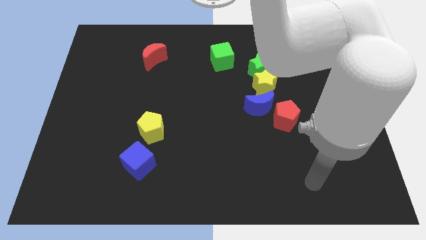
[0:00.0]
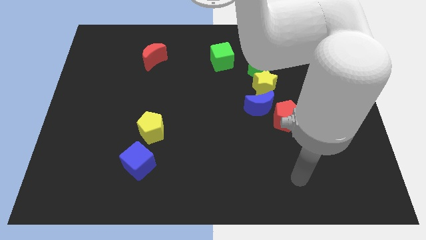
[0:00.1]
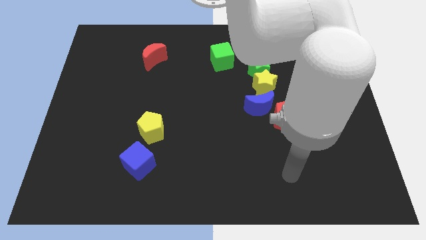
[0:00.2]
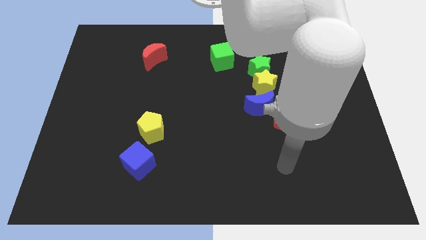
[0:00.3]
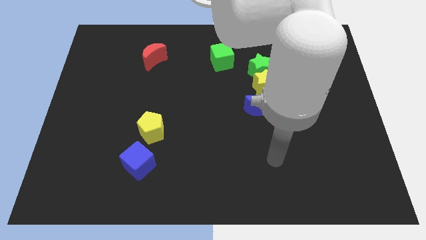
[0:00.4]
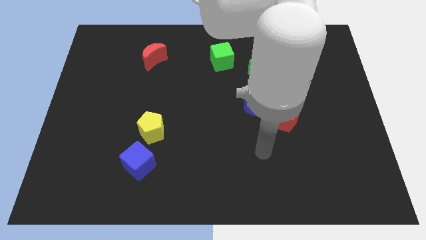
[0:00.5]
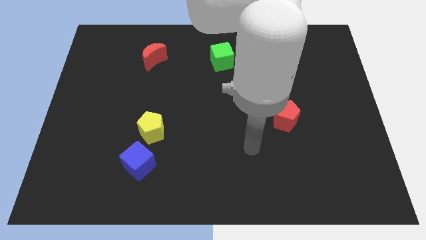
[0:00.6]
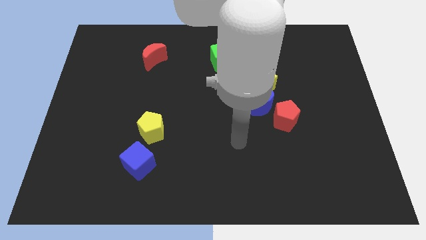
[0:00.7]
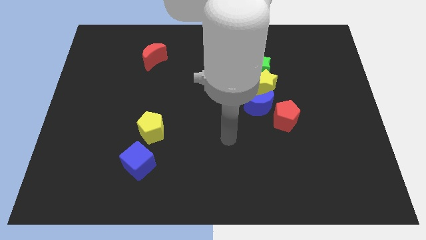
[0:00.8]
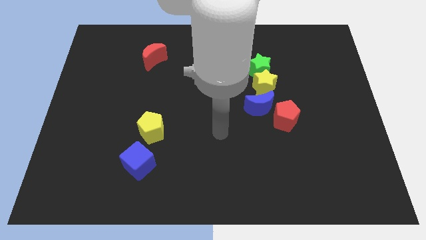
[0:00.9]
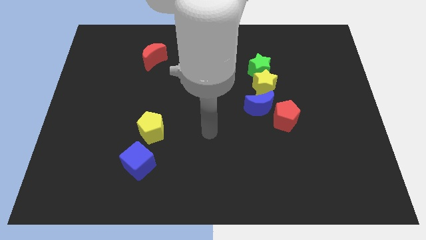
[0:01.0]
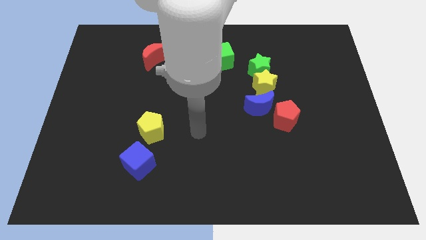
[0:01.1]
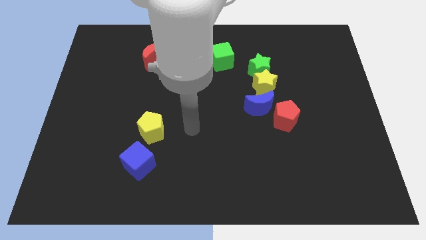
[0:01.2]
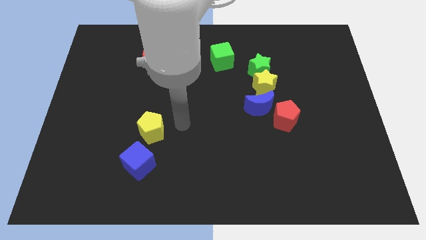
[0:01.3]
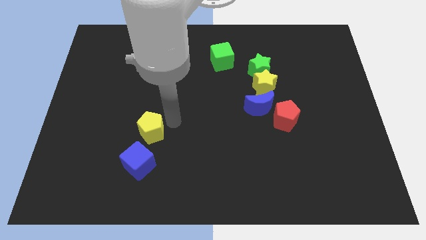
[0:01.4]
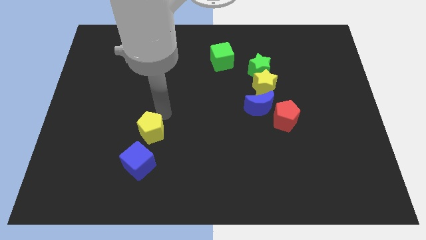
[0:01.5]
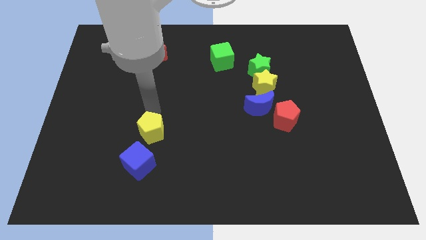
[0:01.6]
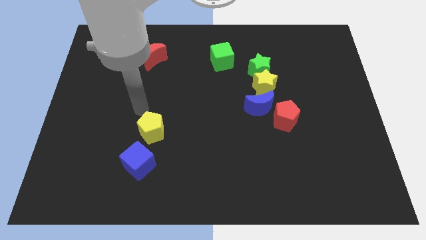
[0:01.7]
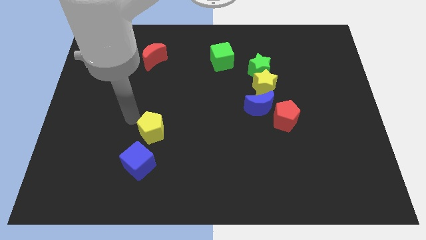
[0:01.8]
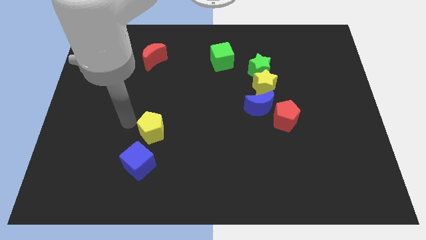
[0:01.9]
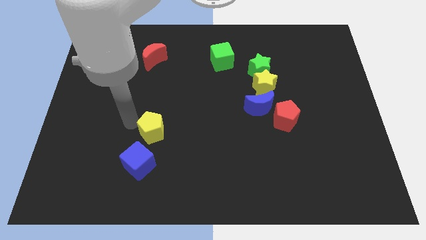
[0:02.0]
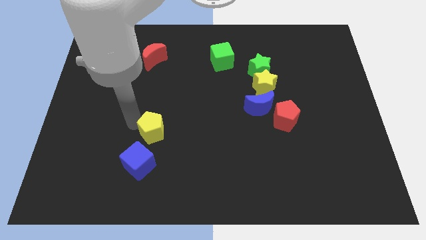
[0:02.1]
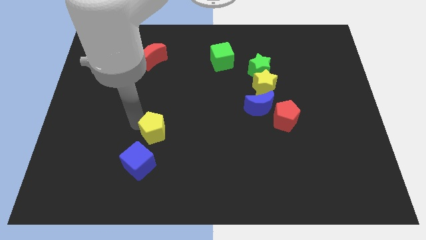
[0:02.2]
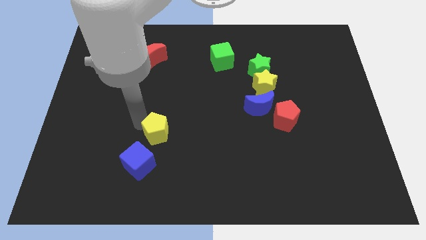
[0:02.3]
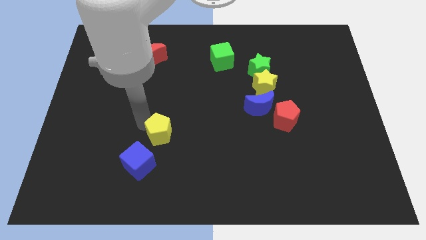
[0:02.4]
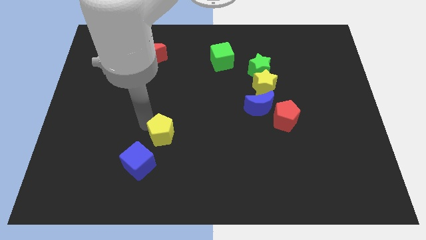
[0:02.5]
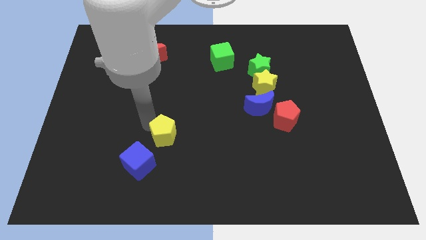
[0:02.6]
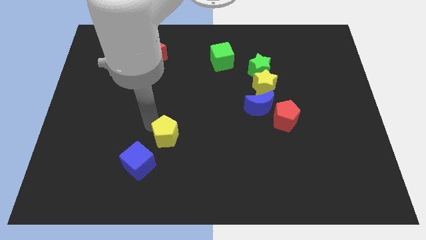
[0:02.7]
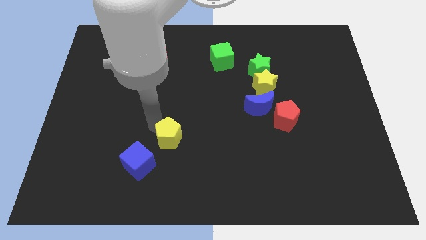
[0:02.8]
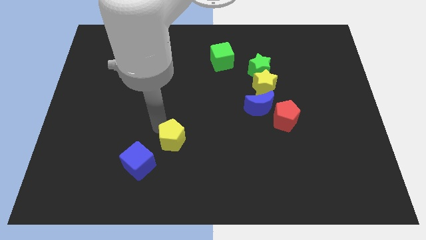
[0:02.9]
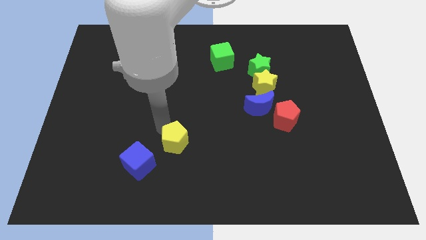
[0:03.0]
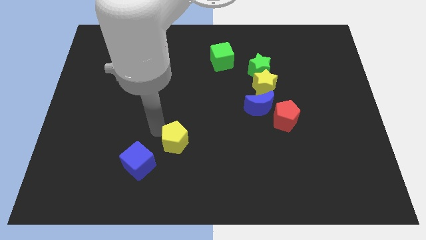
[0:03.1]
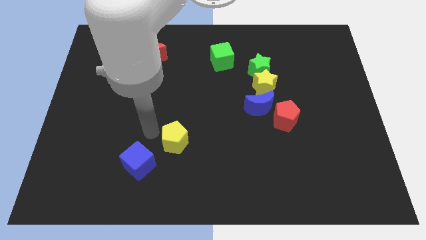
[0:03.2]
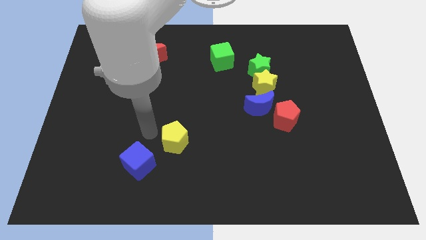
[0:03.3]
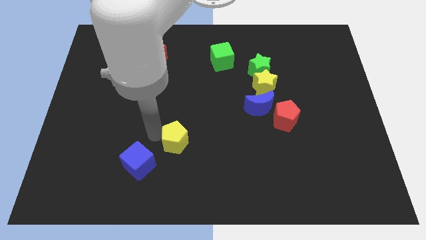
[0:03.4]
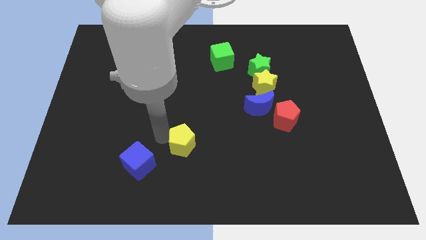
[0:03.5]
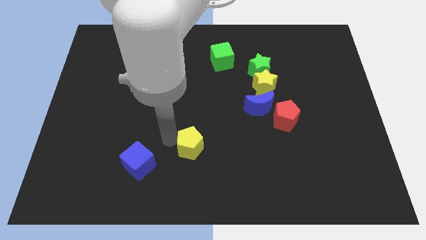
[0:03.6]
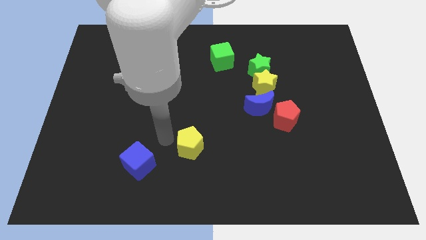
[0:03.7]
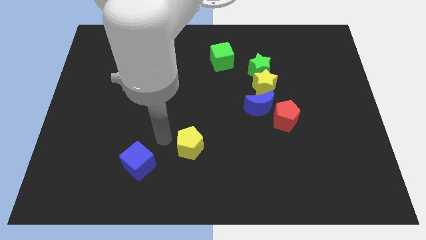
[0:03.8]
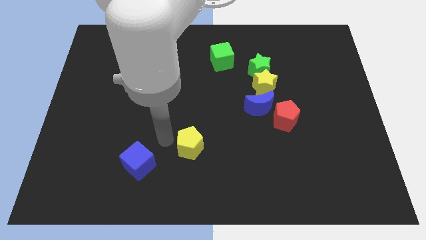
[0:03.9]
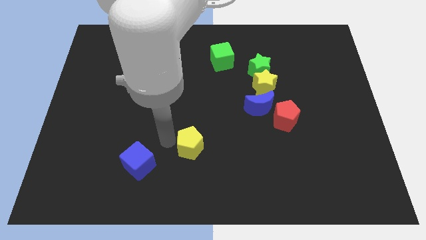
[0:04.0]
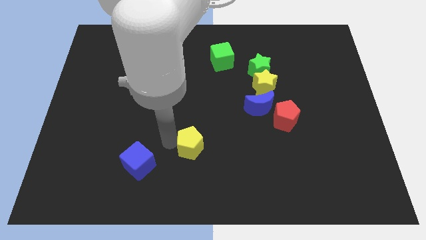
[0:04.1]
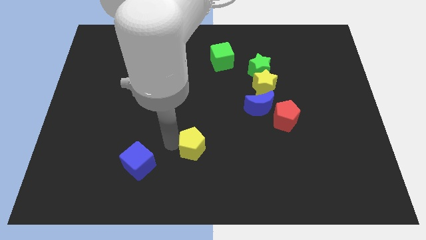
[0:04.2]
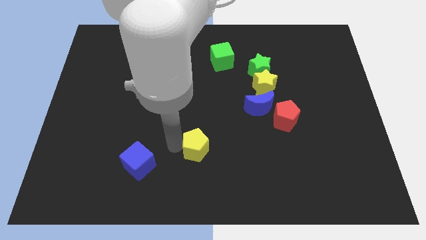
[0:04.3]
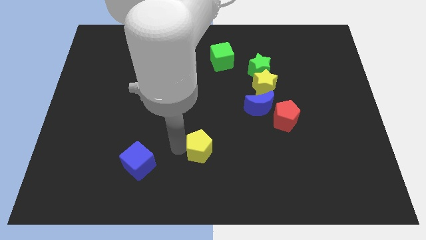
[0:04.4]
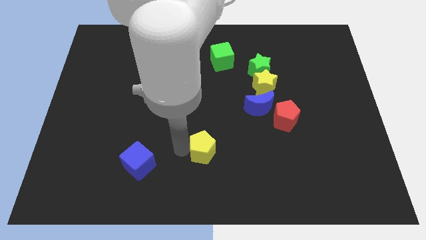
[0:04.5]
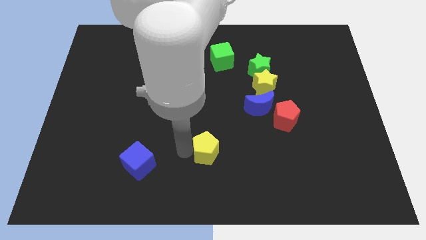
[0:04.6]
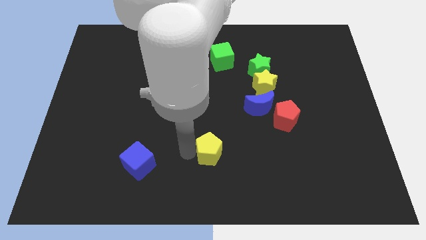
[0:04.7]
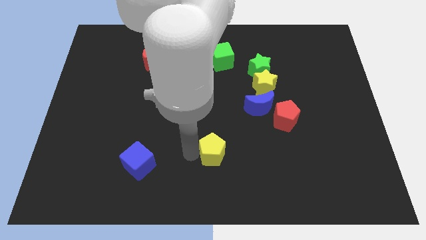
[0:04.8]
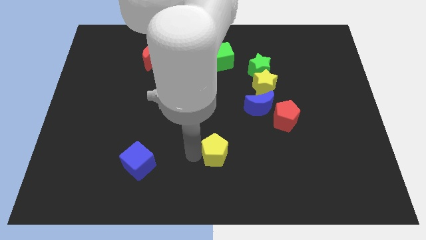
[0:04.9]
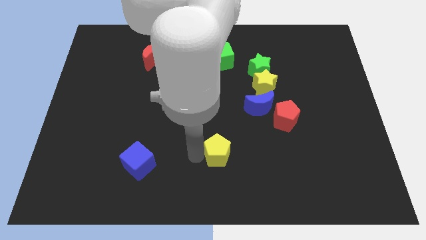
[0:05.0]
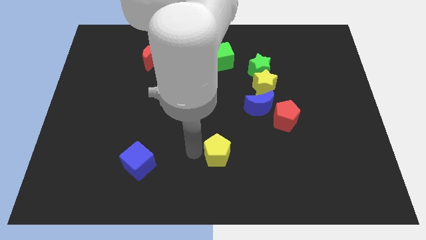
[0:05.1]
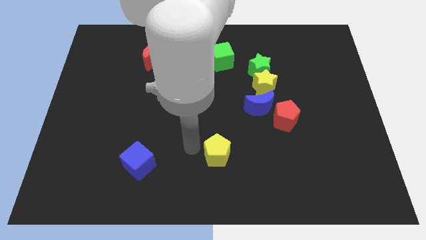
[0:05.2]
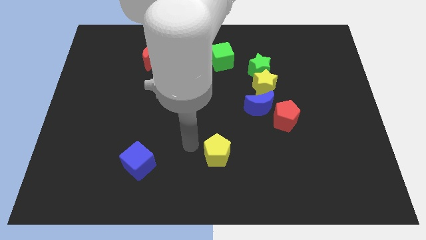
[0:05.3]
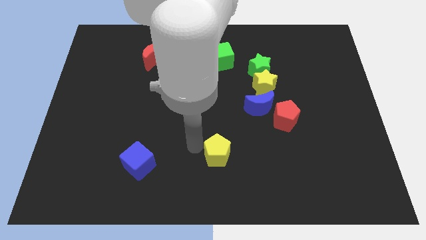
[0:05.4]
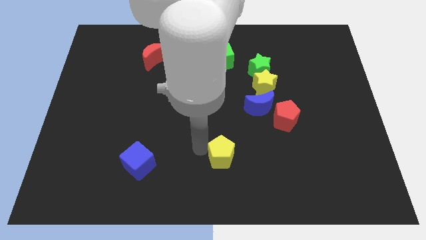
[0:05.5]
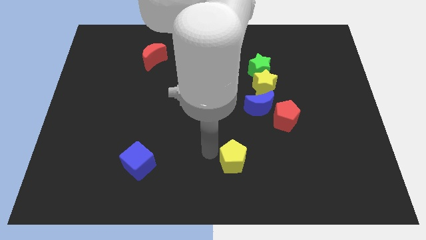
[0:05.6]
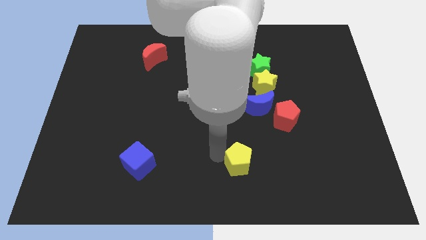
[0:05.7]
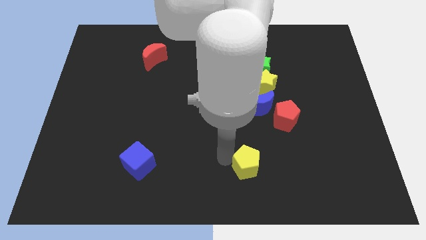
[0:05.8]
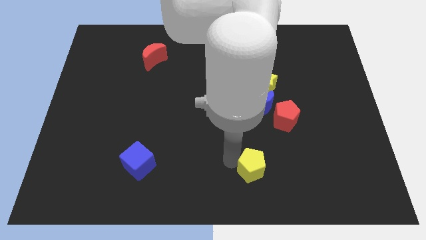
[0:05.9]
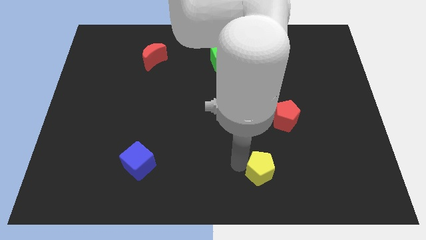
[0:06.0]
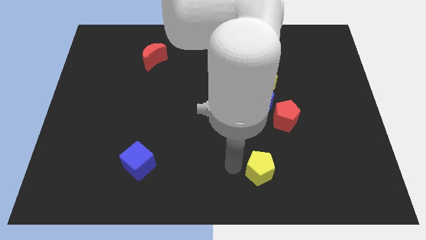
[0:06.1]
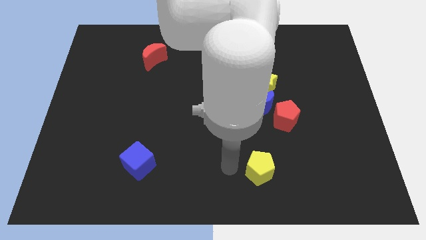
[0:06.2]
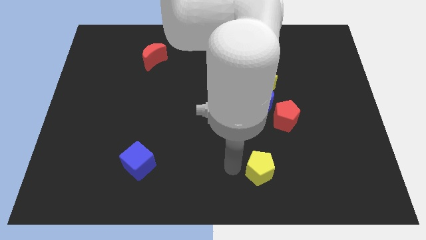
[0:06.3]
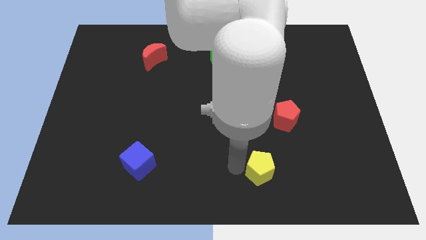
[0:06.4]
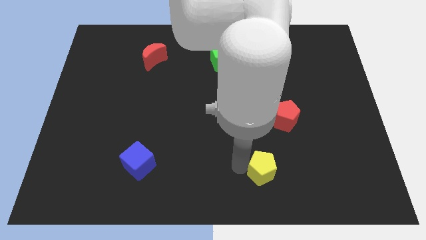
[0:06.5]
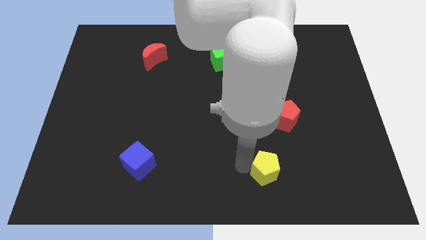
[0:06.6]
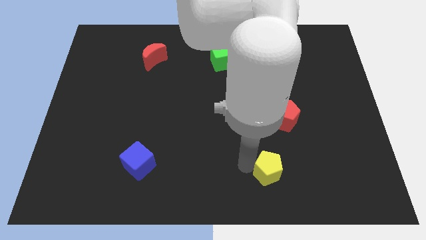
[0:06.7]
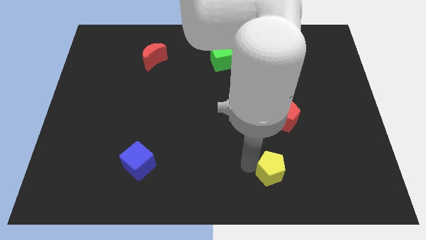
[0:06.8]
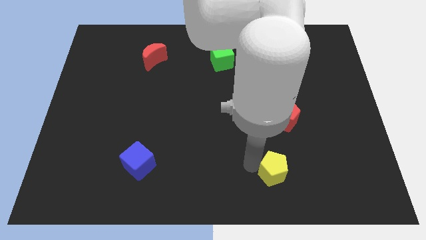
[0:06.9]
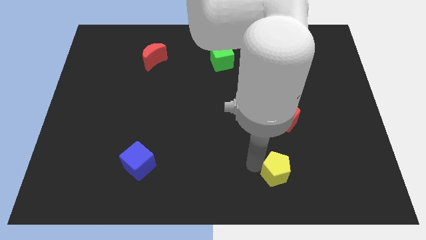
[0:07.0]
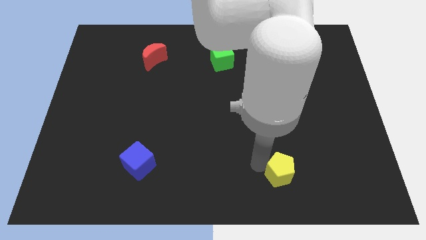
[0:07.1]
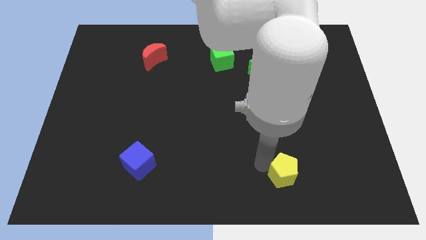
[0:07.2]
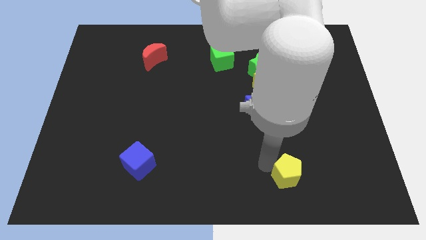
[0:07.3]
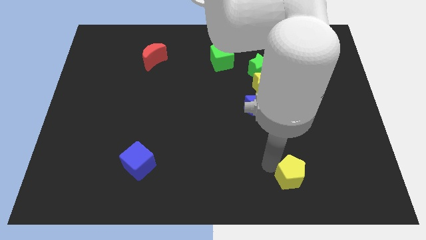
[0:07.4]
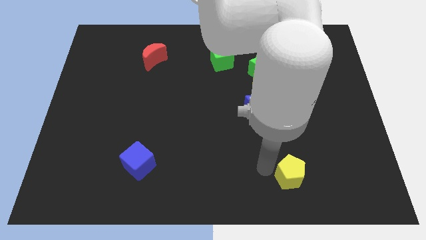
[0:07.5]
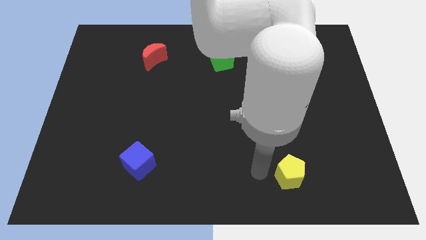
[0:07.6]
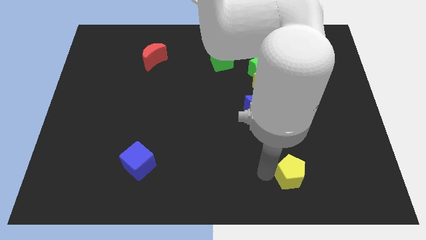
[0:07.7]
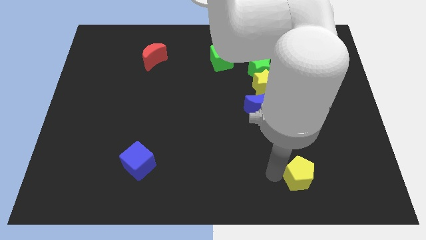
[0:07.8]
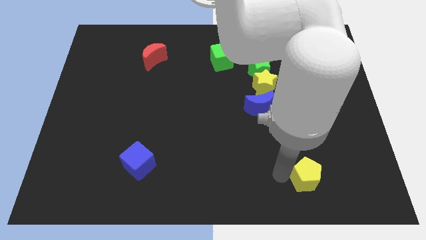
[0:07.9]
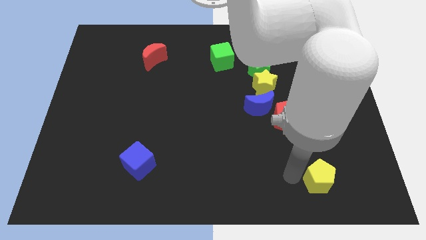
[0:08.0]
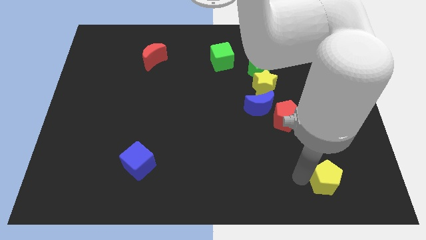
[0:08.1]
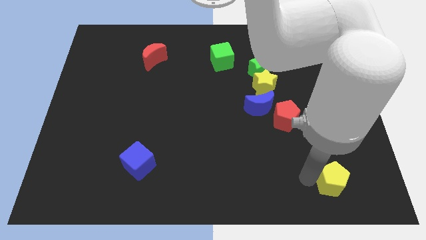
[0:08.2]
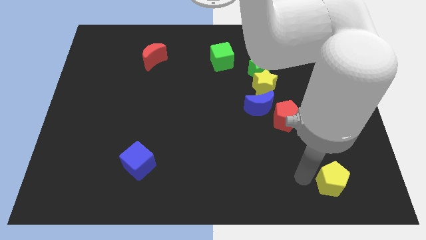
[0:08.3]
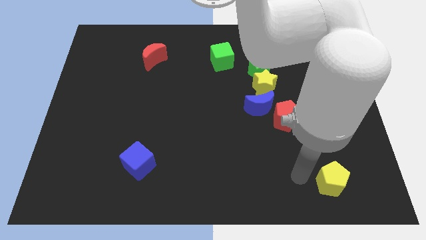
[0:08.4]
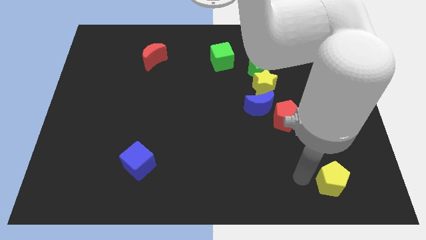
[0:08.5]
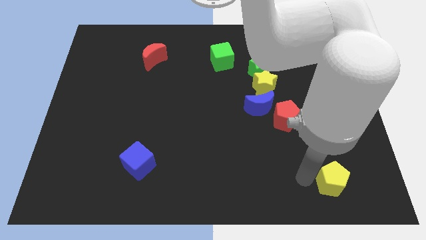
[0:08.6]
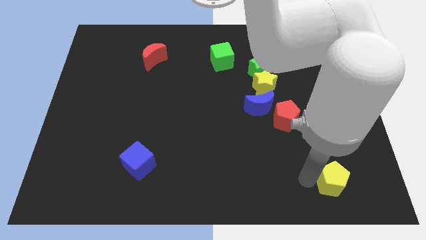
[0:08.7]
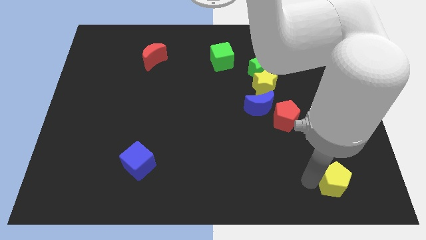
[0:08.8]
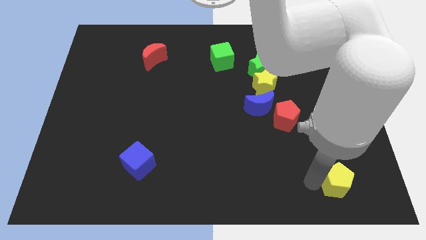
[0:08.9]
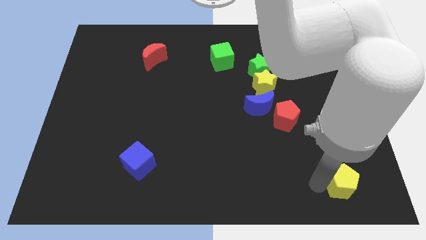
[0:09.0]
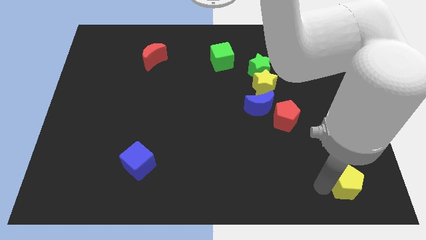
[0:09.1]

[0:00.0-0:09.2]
slide the yellow pentagon to the lower right corner
